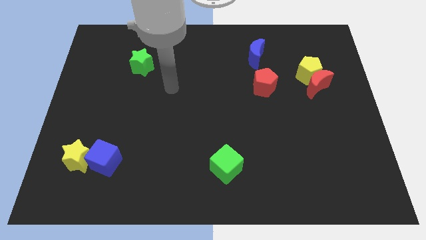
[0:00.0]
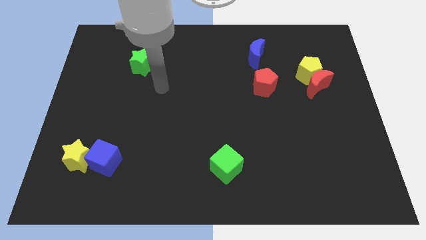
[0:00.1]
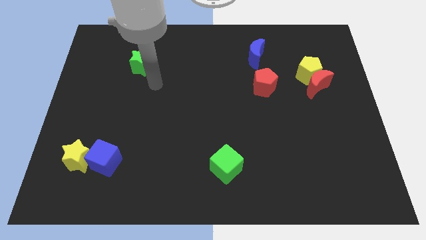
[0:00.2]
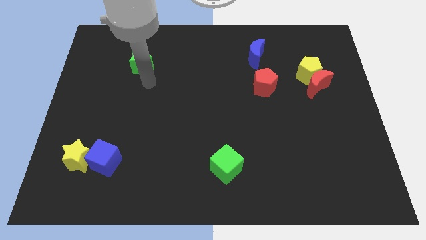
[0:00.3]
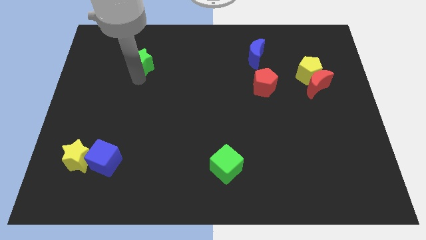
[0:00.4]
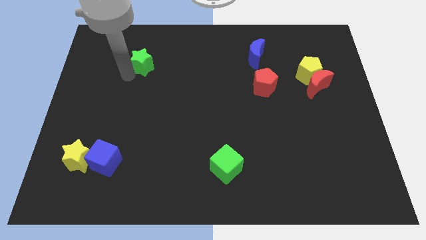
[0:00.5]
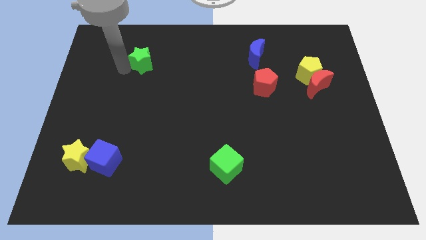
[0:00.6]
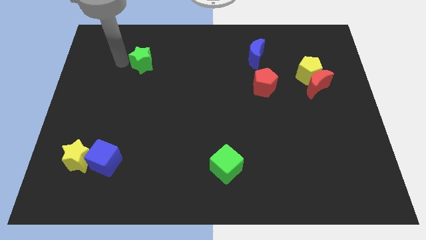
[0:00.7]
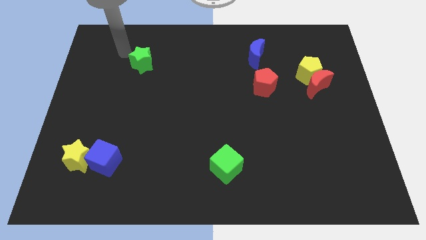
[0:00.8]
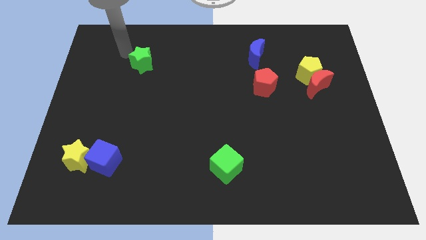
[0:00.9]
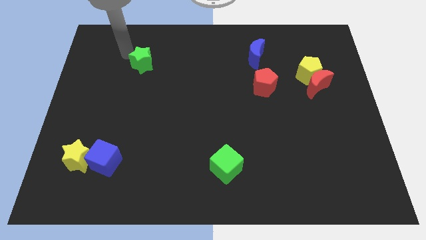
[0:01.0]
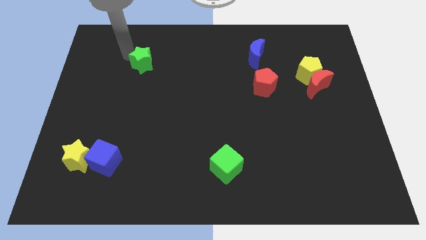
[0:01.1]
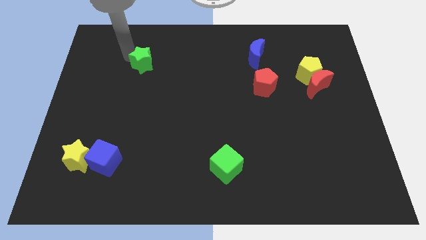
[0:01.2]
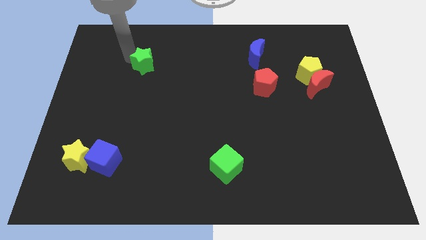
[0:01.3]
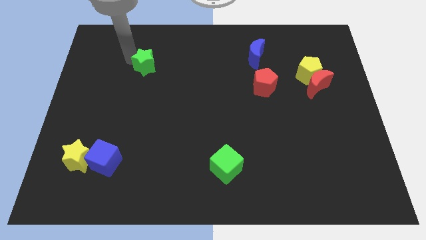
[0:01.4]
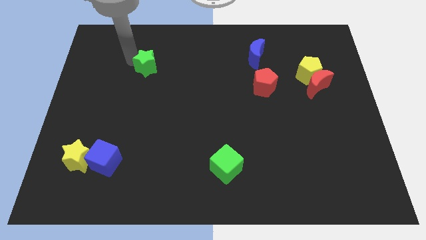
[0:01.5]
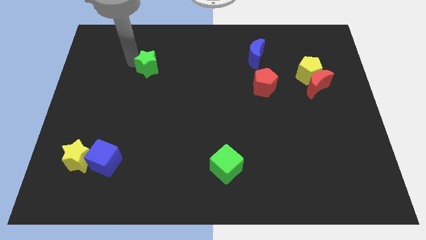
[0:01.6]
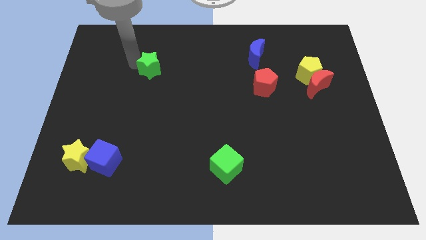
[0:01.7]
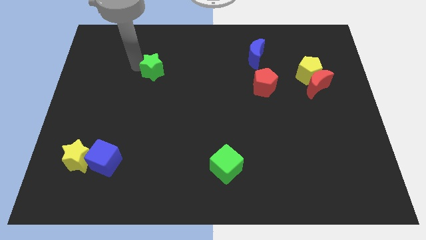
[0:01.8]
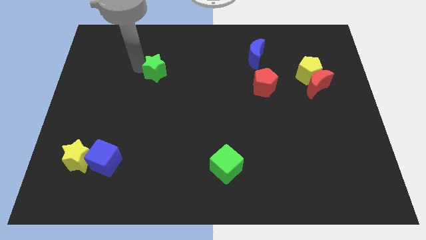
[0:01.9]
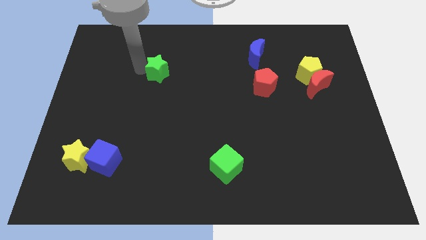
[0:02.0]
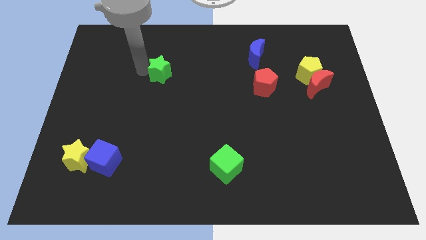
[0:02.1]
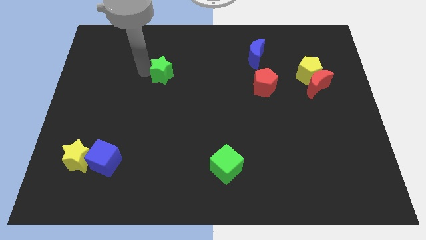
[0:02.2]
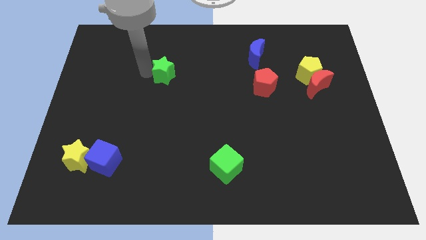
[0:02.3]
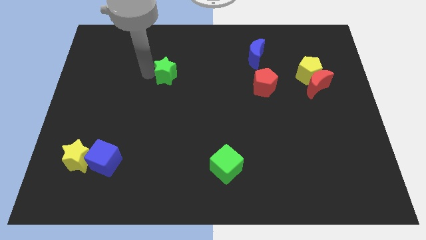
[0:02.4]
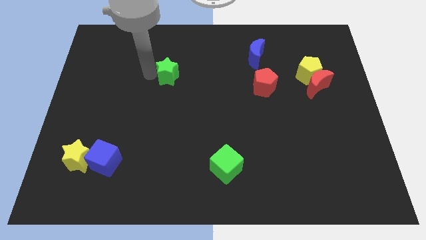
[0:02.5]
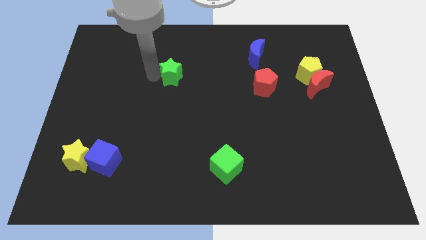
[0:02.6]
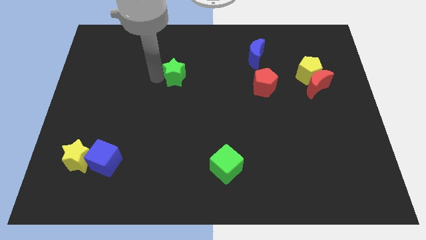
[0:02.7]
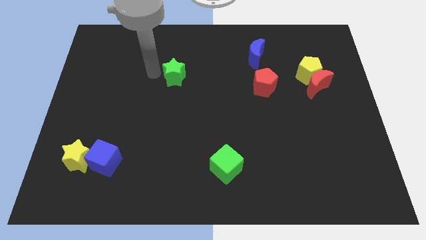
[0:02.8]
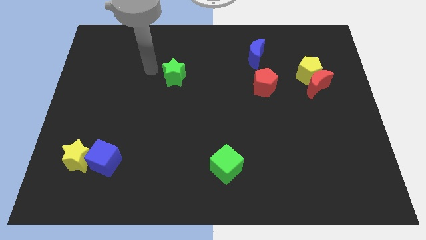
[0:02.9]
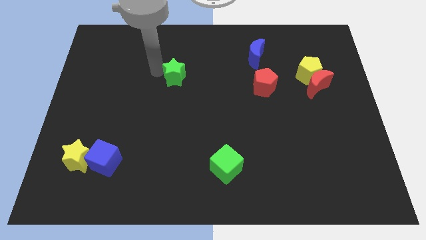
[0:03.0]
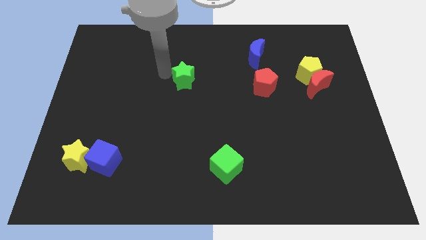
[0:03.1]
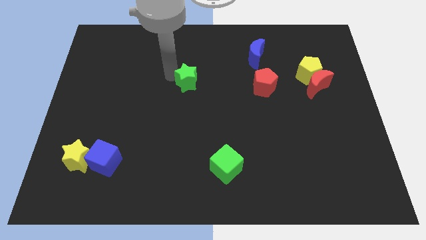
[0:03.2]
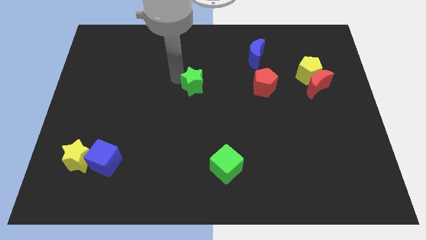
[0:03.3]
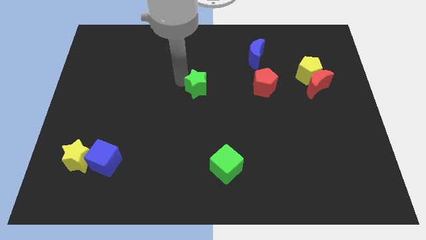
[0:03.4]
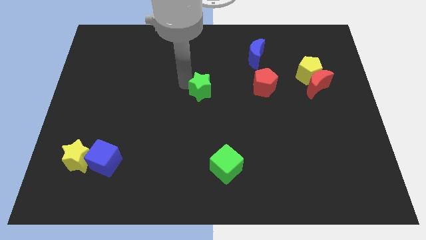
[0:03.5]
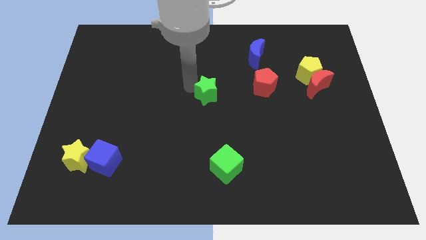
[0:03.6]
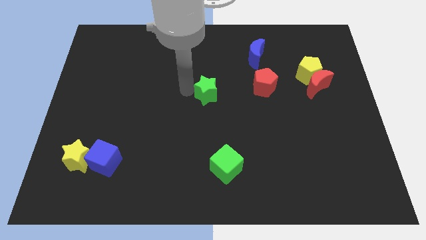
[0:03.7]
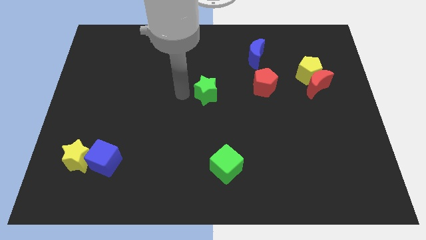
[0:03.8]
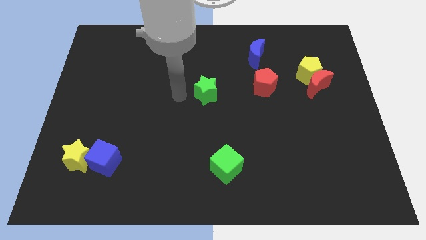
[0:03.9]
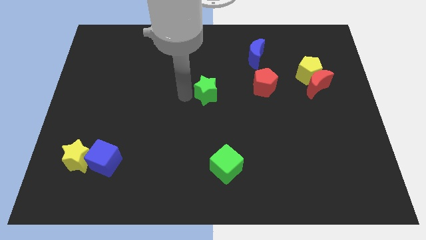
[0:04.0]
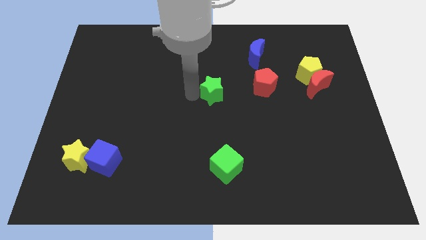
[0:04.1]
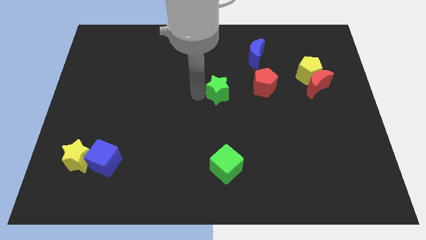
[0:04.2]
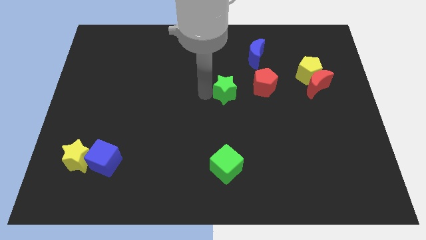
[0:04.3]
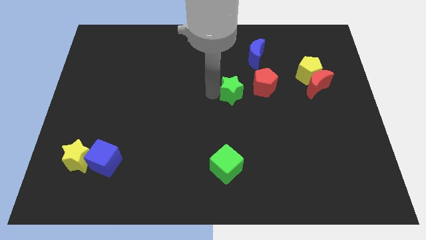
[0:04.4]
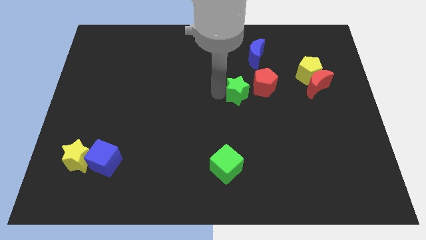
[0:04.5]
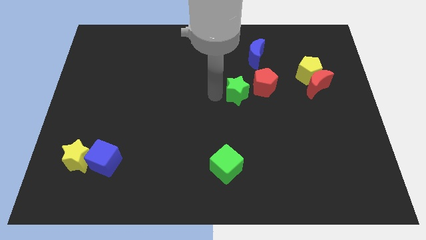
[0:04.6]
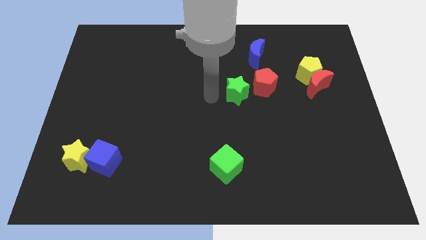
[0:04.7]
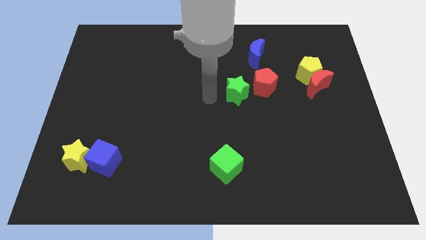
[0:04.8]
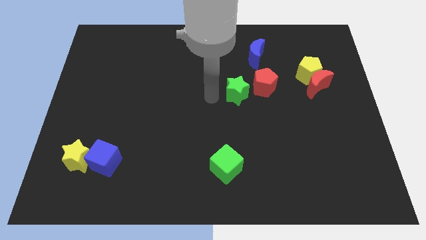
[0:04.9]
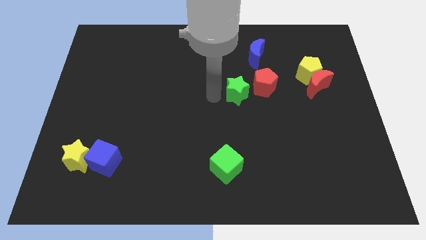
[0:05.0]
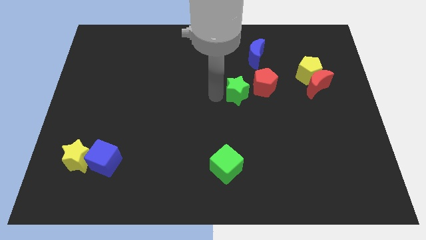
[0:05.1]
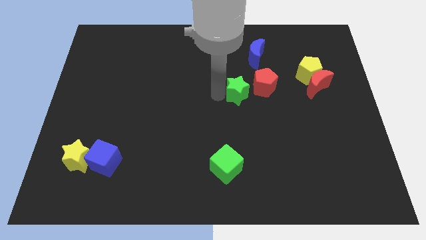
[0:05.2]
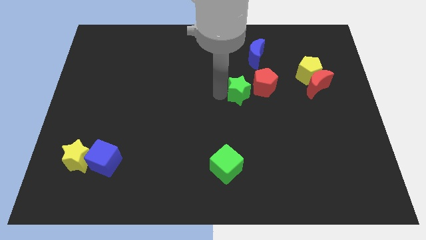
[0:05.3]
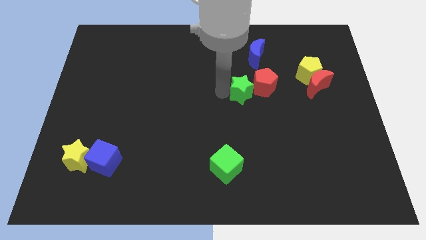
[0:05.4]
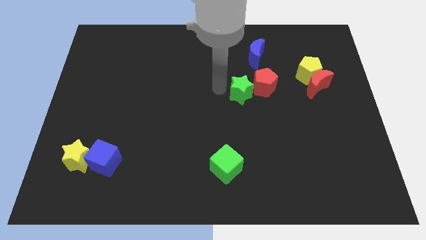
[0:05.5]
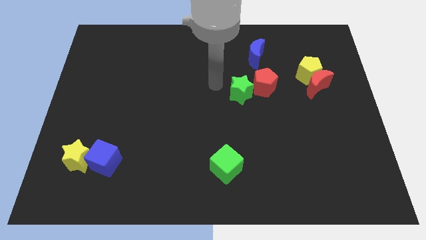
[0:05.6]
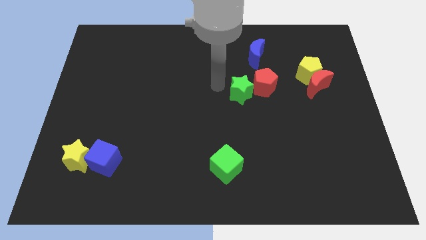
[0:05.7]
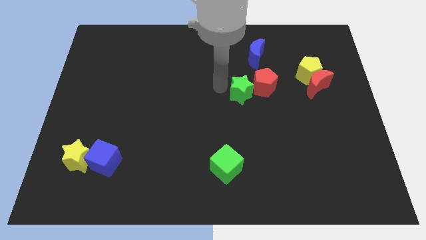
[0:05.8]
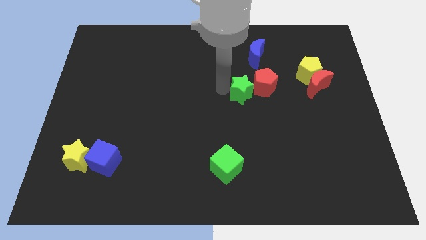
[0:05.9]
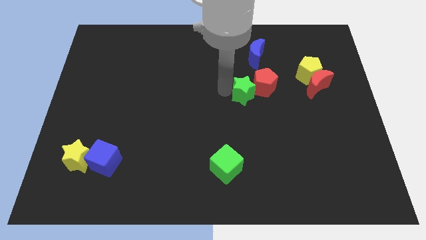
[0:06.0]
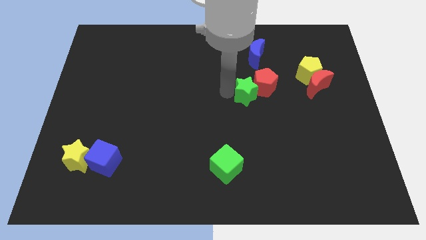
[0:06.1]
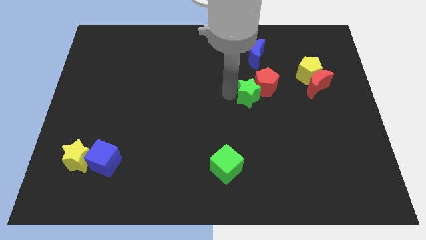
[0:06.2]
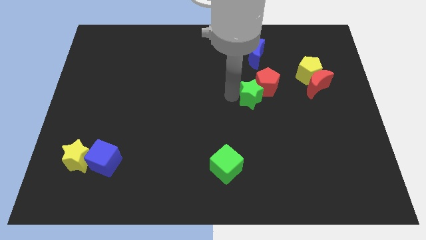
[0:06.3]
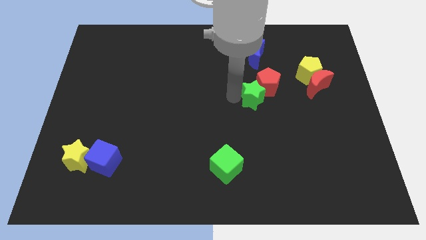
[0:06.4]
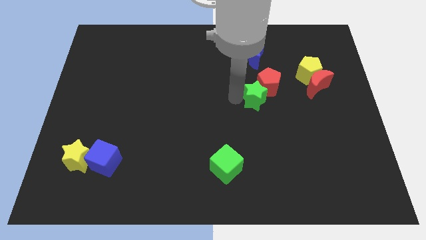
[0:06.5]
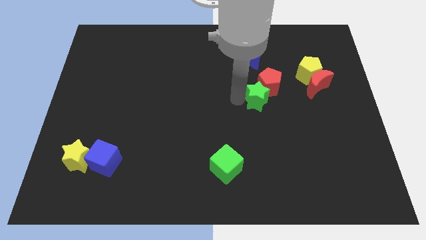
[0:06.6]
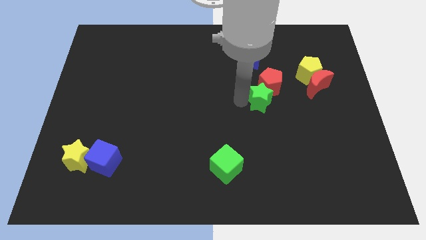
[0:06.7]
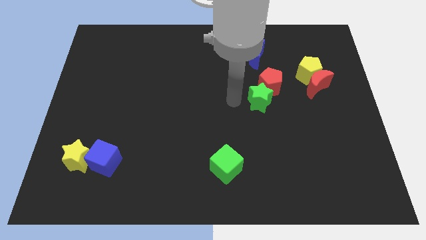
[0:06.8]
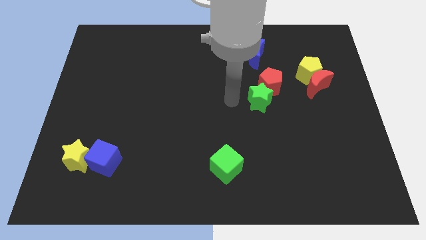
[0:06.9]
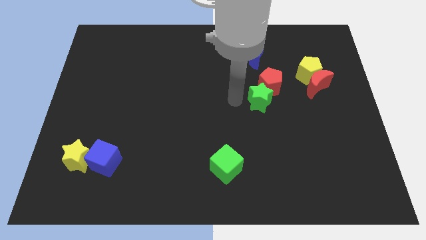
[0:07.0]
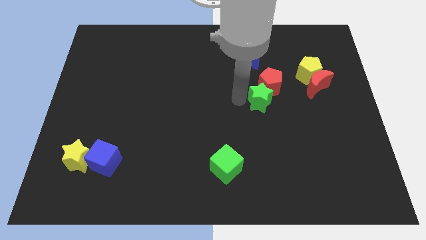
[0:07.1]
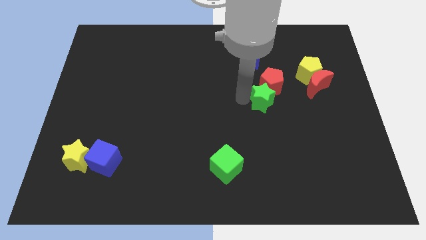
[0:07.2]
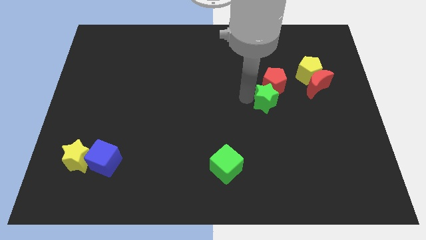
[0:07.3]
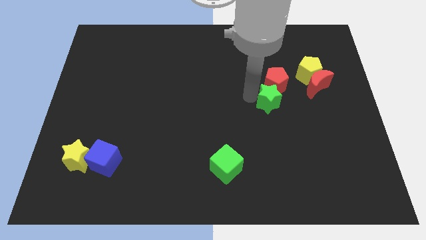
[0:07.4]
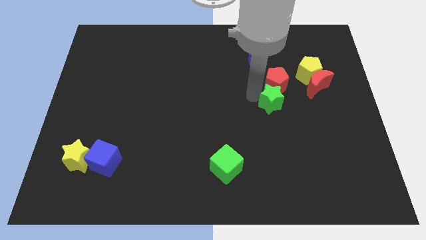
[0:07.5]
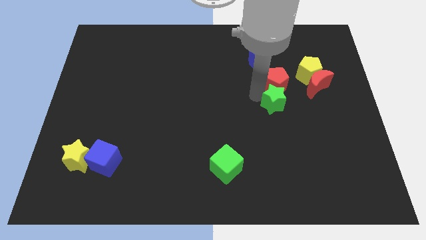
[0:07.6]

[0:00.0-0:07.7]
push the green star to the bottom right side of the red pentagon
